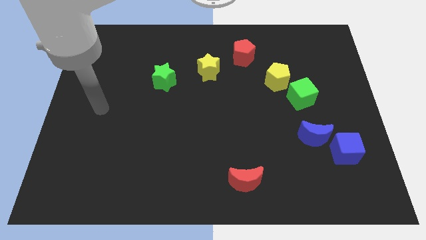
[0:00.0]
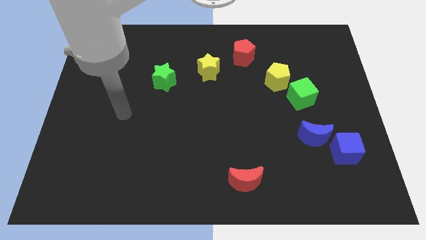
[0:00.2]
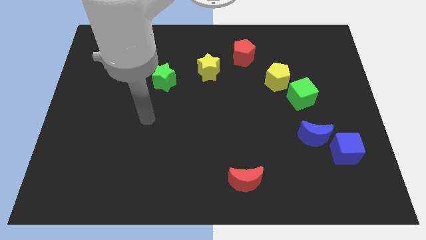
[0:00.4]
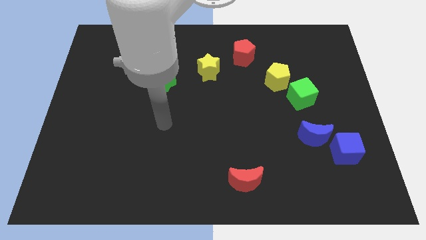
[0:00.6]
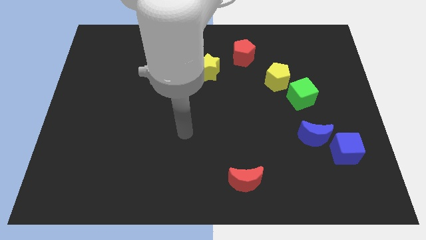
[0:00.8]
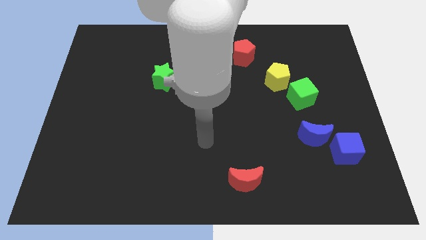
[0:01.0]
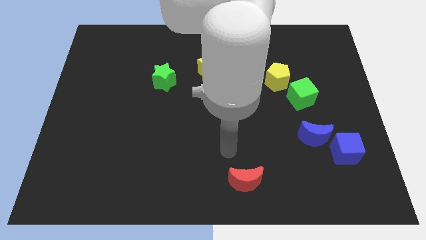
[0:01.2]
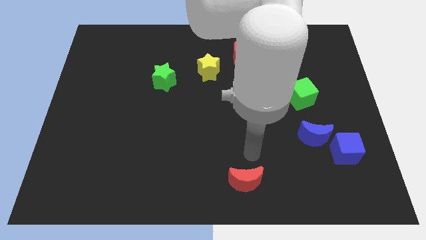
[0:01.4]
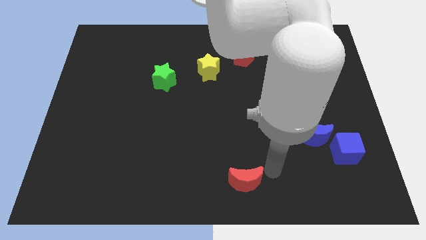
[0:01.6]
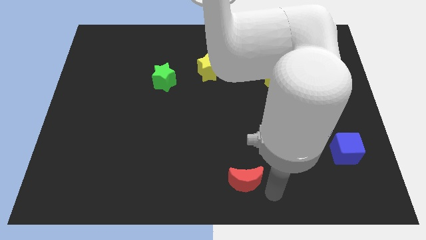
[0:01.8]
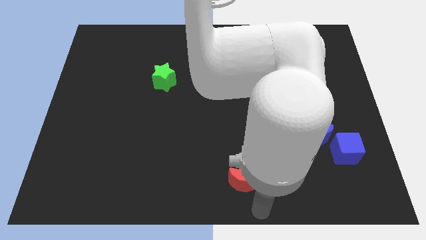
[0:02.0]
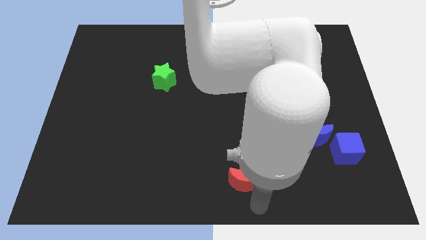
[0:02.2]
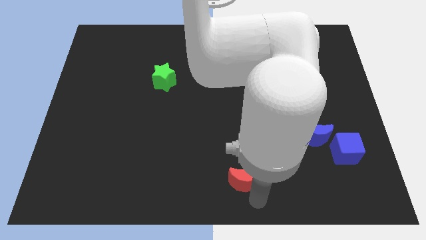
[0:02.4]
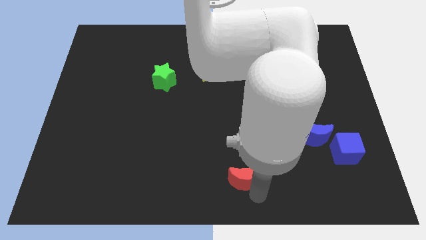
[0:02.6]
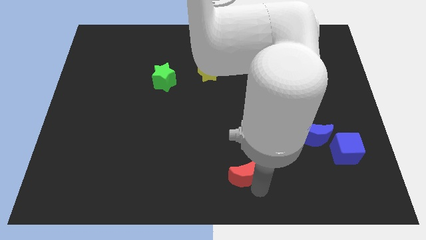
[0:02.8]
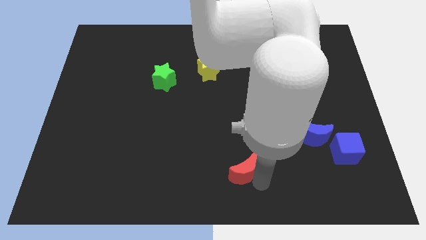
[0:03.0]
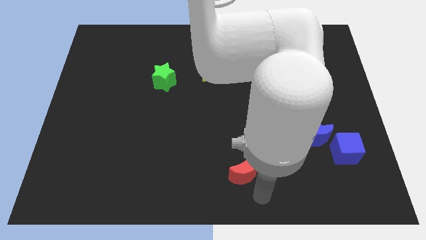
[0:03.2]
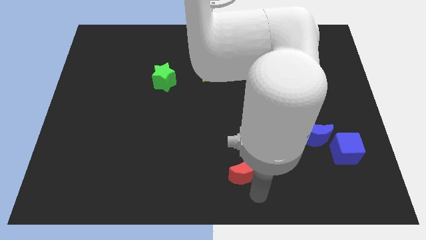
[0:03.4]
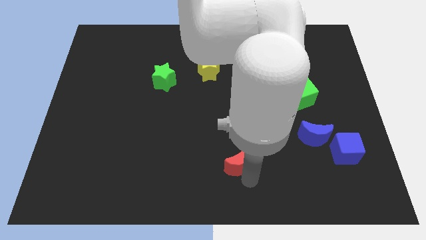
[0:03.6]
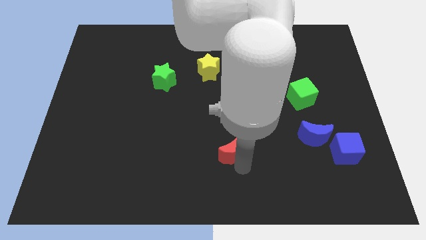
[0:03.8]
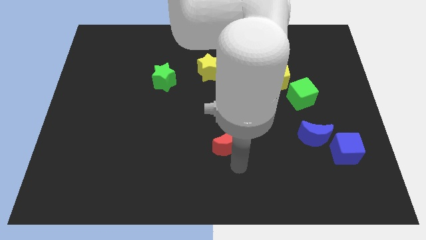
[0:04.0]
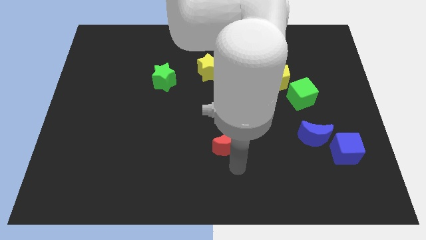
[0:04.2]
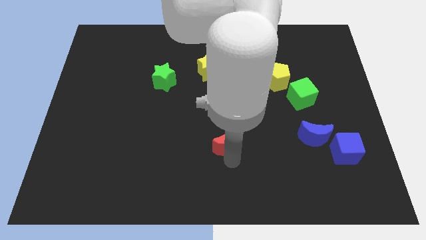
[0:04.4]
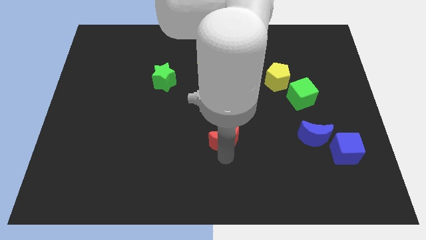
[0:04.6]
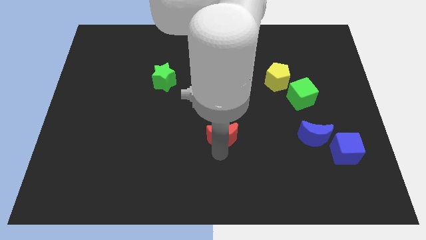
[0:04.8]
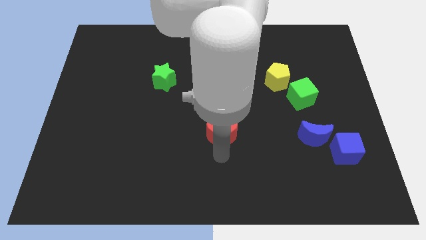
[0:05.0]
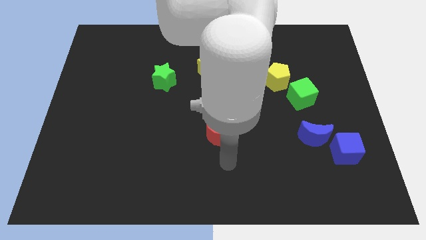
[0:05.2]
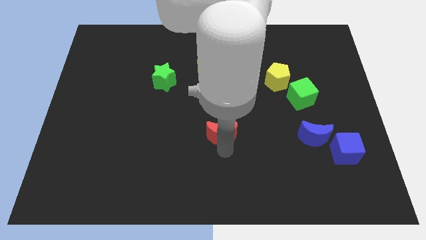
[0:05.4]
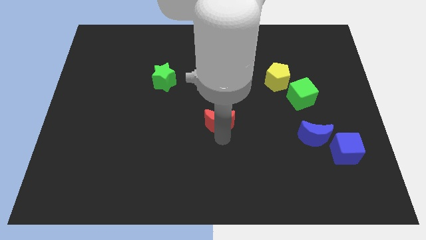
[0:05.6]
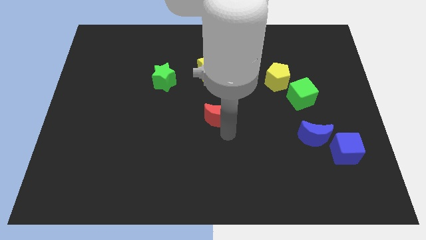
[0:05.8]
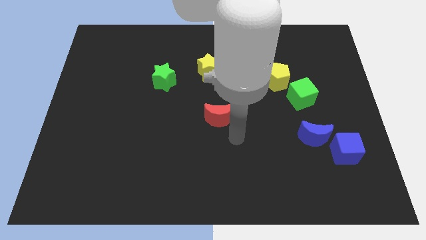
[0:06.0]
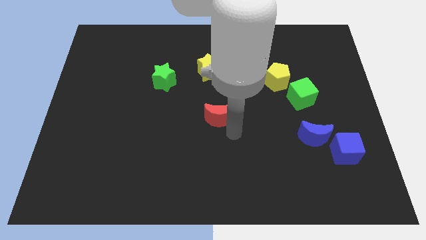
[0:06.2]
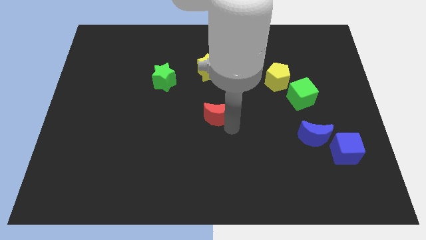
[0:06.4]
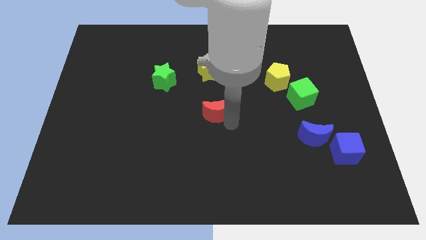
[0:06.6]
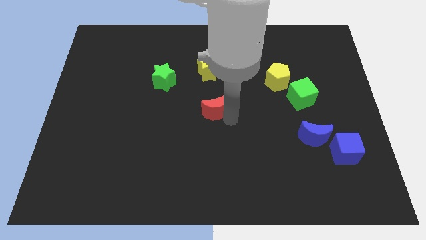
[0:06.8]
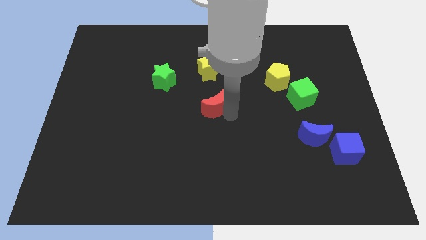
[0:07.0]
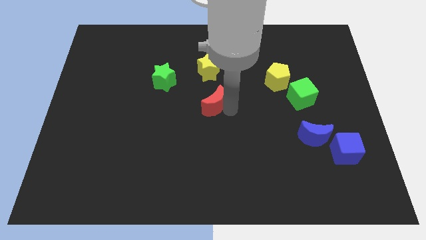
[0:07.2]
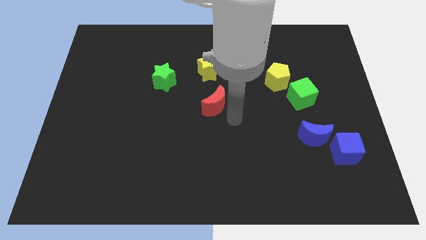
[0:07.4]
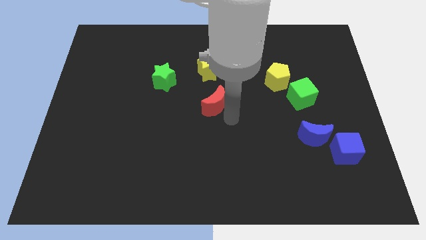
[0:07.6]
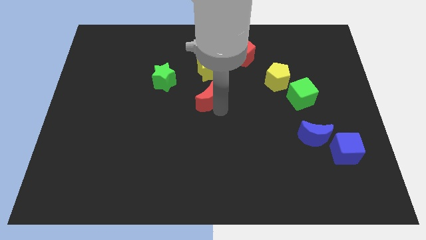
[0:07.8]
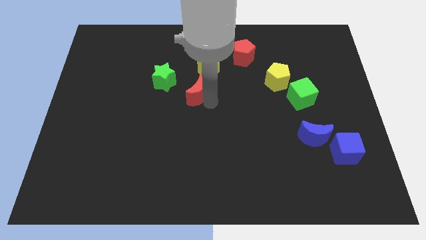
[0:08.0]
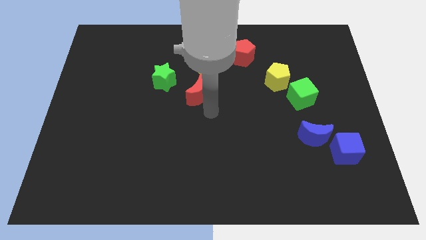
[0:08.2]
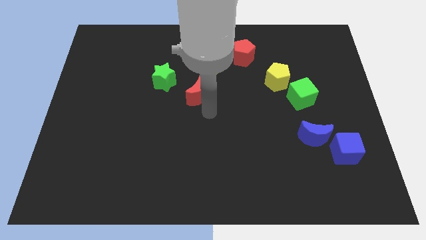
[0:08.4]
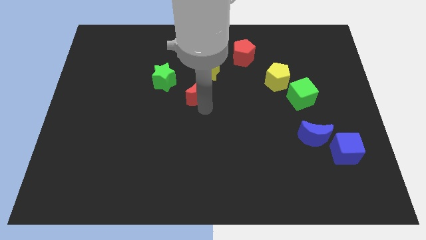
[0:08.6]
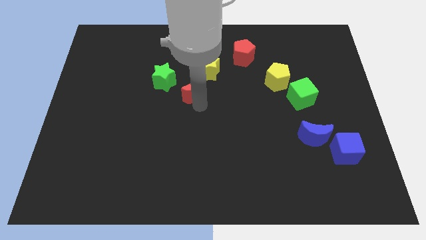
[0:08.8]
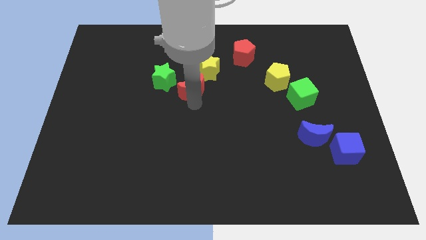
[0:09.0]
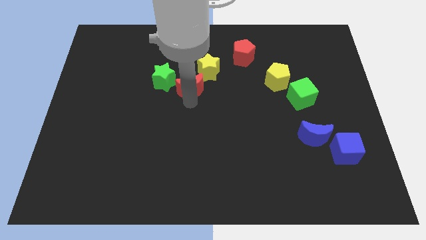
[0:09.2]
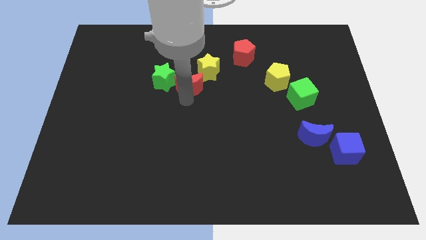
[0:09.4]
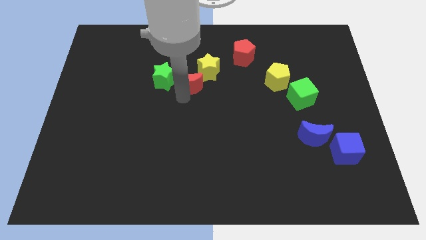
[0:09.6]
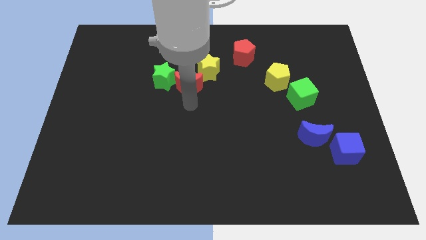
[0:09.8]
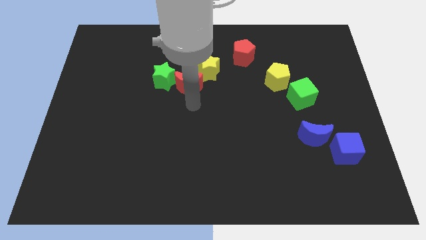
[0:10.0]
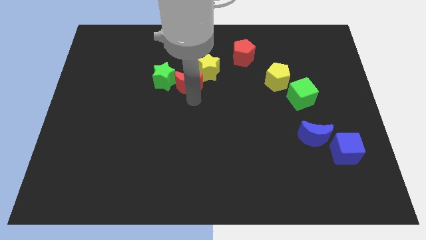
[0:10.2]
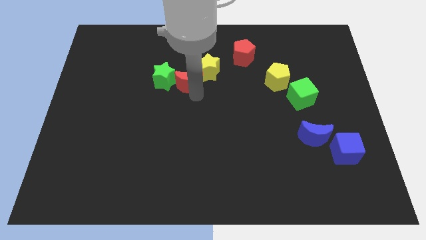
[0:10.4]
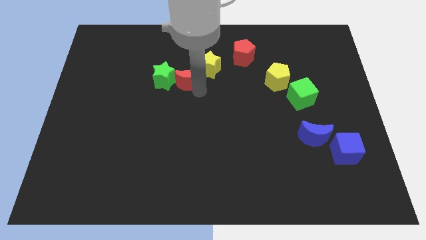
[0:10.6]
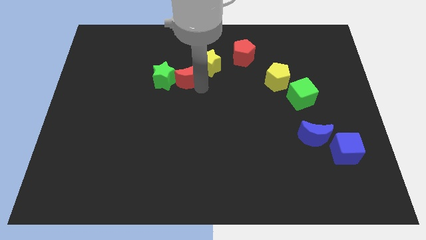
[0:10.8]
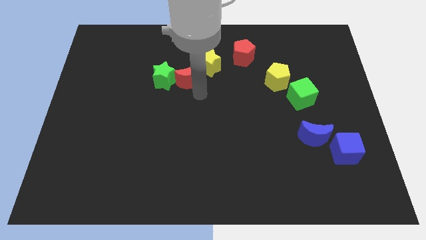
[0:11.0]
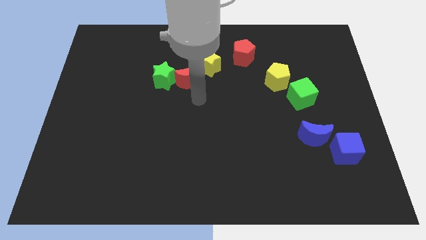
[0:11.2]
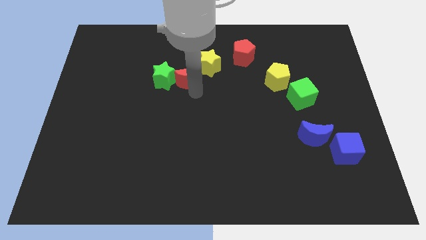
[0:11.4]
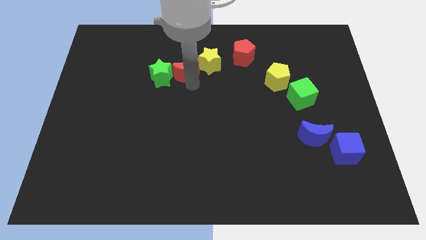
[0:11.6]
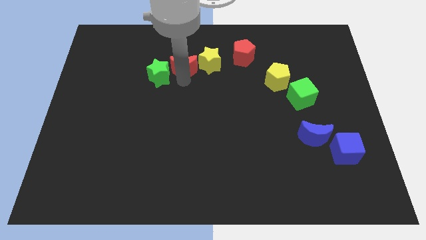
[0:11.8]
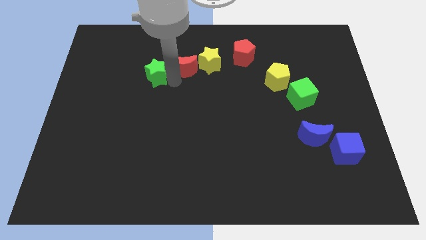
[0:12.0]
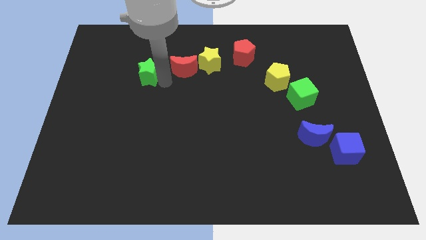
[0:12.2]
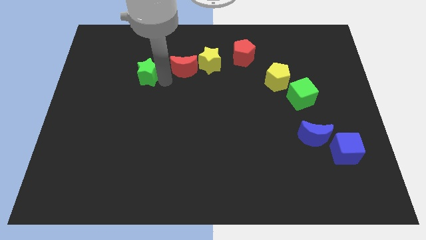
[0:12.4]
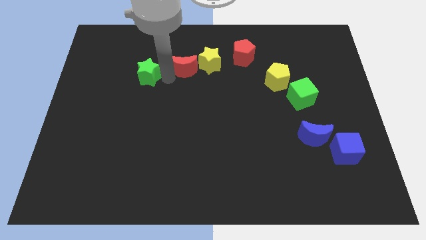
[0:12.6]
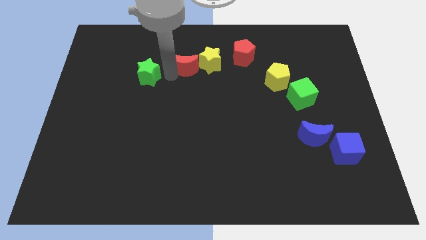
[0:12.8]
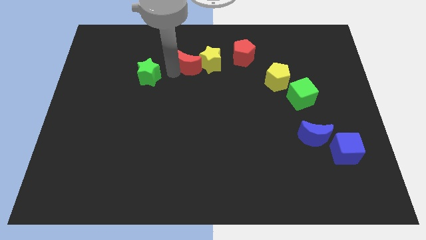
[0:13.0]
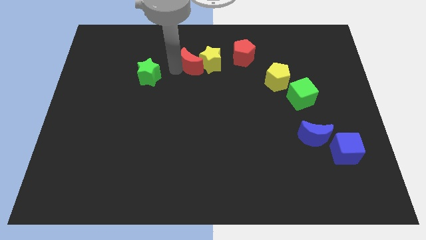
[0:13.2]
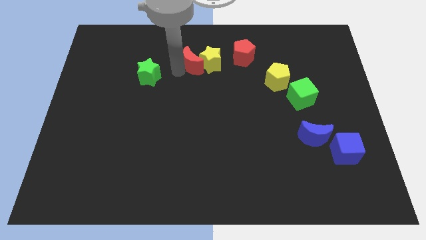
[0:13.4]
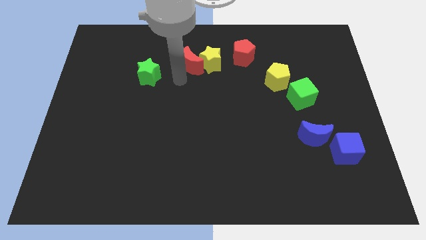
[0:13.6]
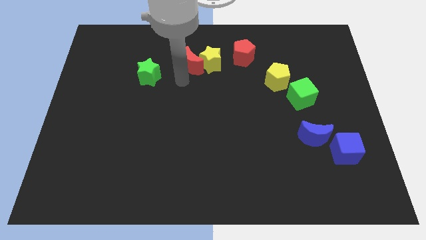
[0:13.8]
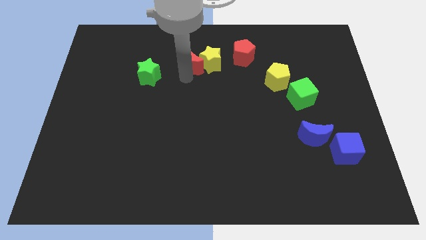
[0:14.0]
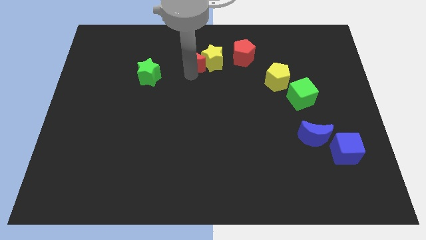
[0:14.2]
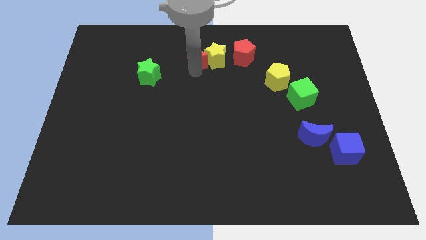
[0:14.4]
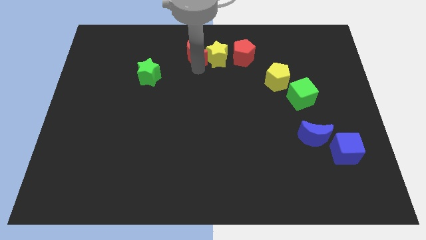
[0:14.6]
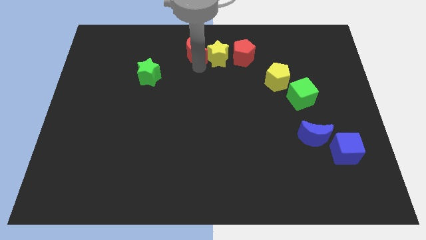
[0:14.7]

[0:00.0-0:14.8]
slide the red moon to the top
